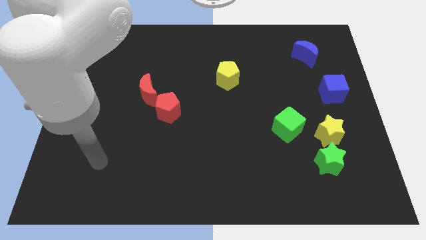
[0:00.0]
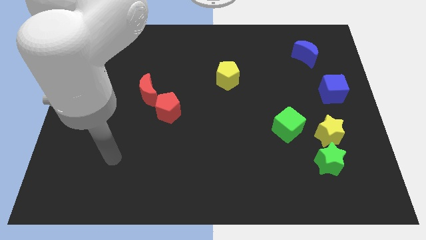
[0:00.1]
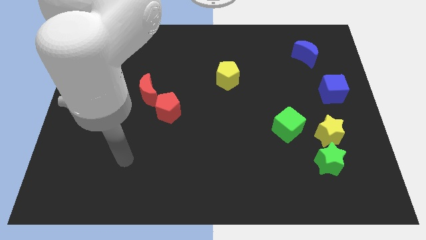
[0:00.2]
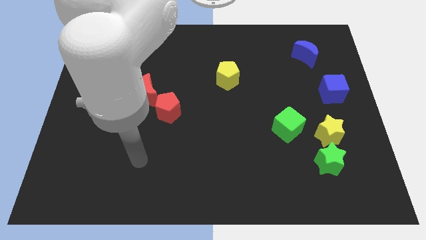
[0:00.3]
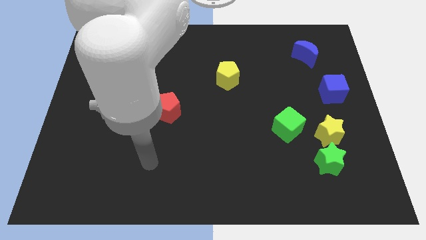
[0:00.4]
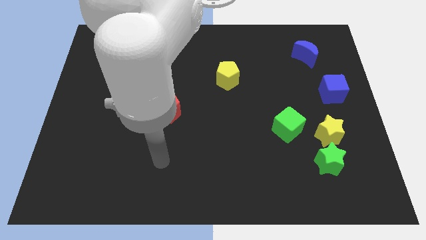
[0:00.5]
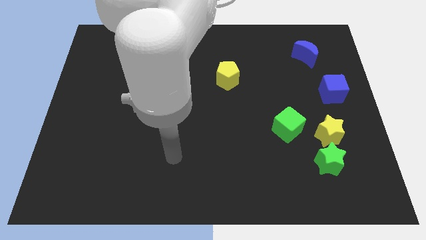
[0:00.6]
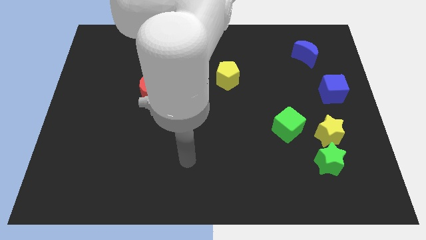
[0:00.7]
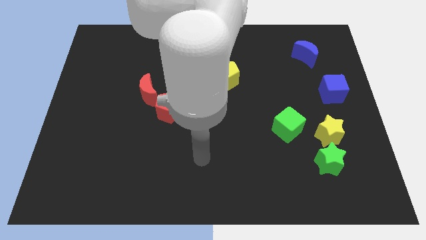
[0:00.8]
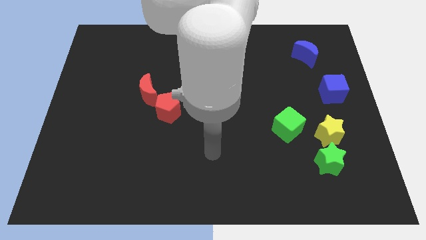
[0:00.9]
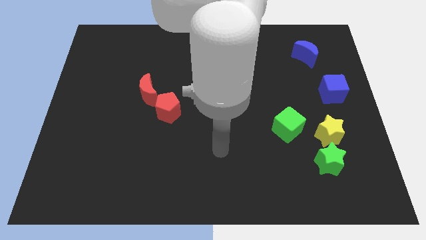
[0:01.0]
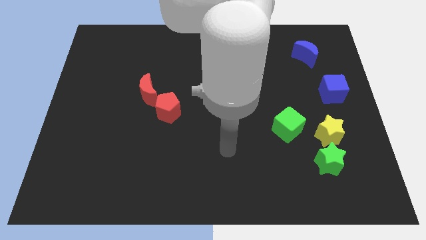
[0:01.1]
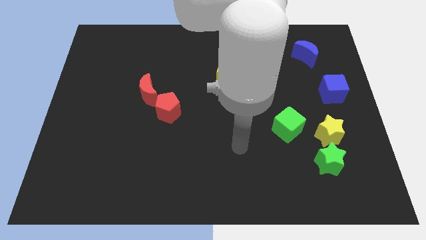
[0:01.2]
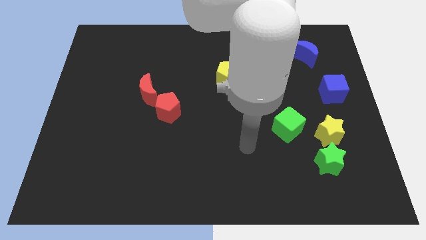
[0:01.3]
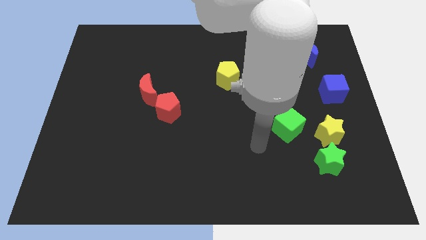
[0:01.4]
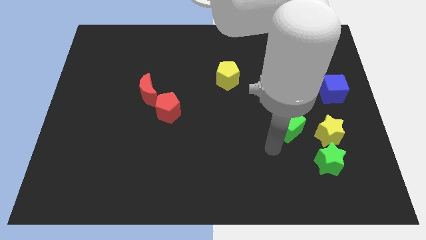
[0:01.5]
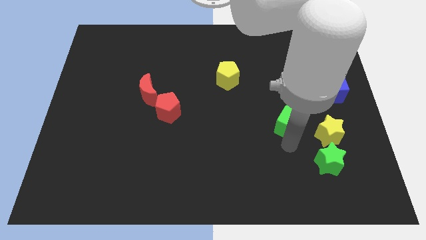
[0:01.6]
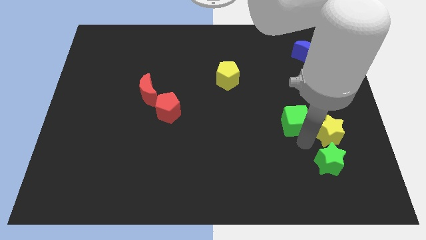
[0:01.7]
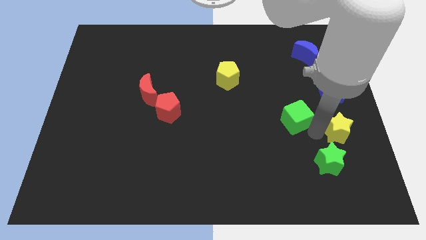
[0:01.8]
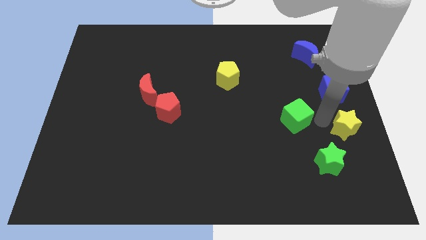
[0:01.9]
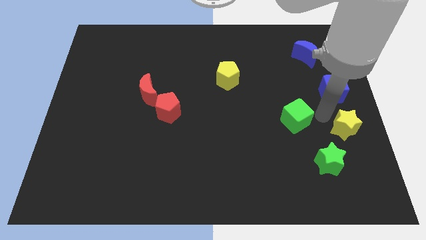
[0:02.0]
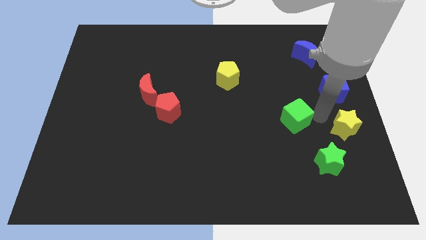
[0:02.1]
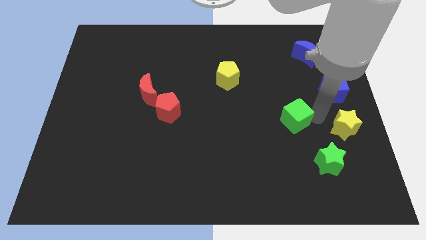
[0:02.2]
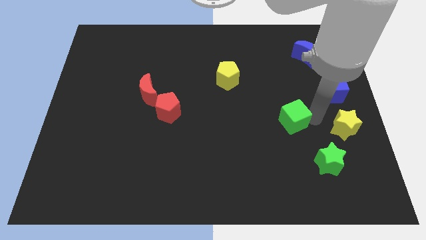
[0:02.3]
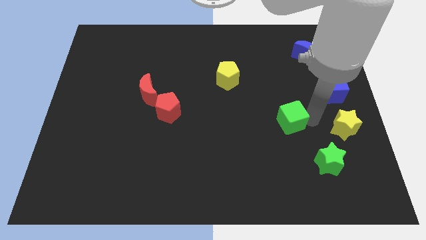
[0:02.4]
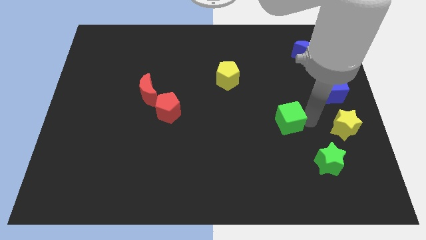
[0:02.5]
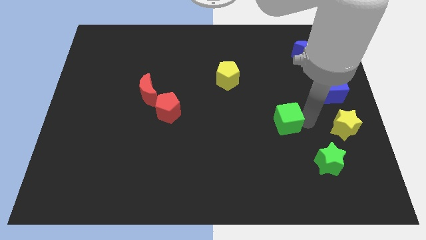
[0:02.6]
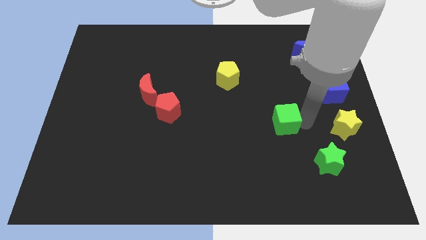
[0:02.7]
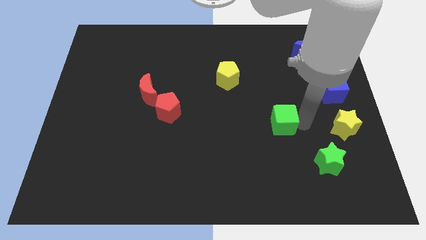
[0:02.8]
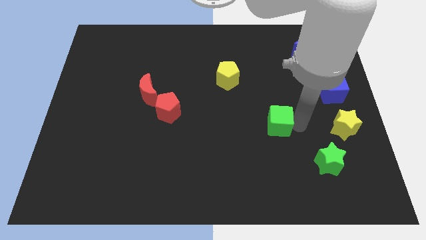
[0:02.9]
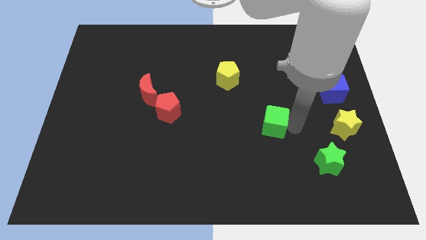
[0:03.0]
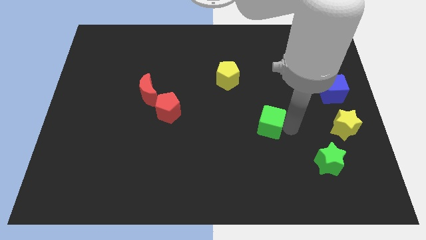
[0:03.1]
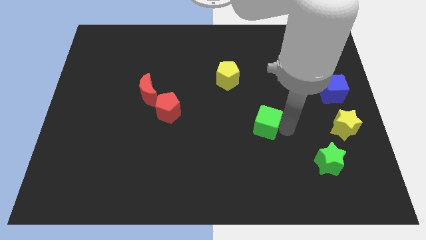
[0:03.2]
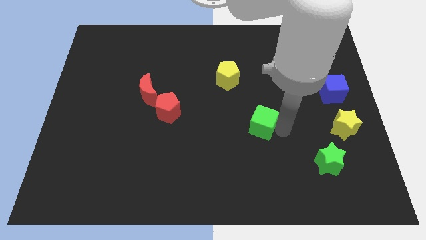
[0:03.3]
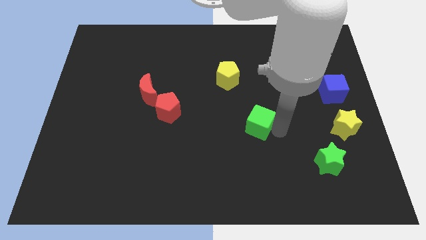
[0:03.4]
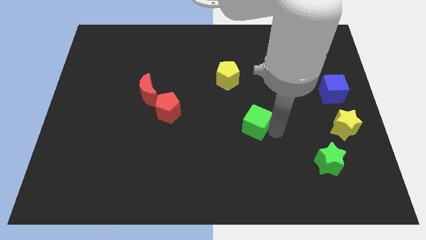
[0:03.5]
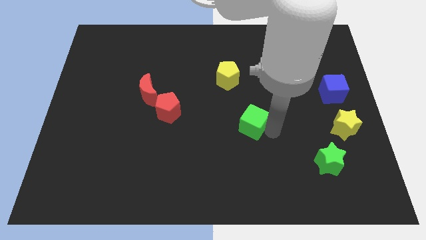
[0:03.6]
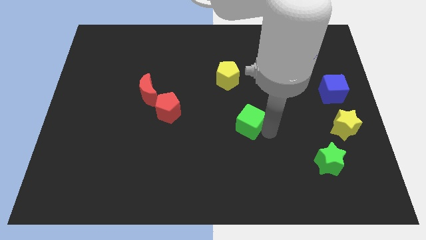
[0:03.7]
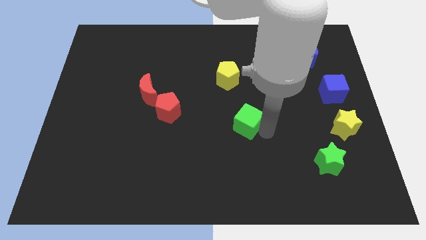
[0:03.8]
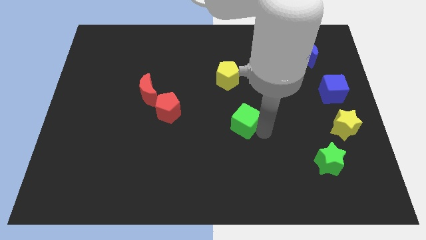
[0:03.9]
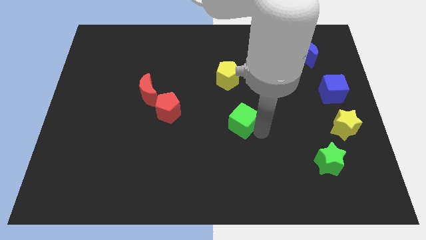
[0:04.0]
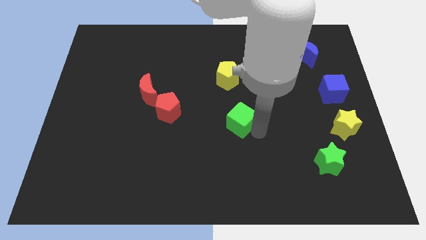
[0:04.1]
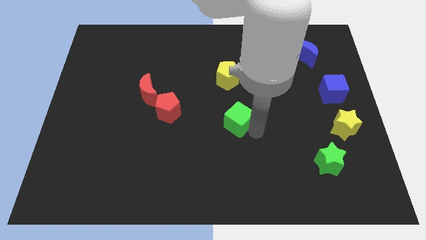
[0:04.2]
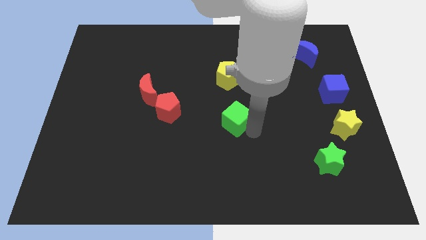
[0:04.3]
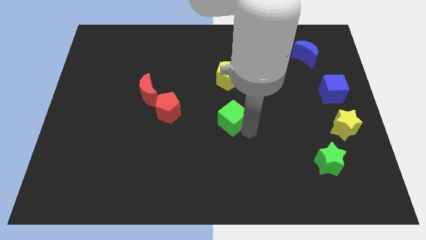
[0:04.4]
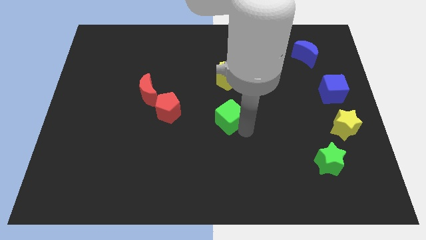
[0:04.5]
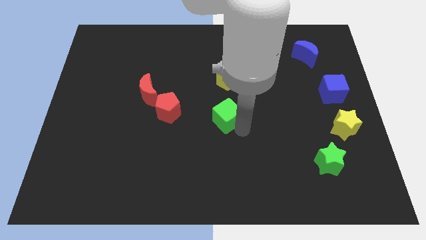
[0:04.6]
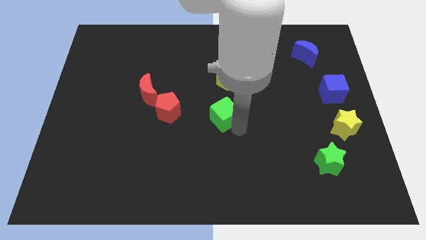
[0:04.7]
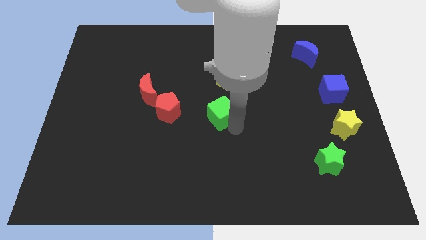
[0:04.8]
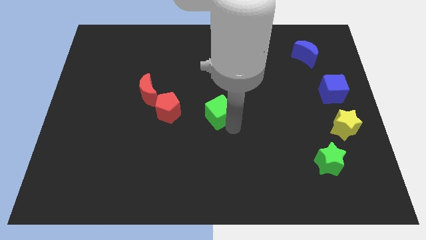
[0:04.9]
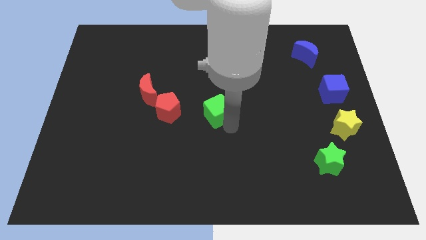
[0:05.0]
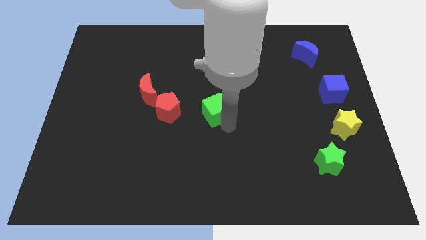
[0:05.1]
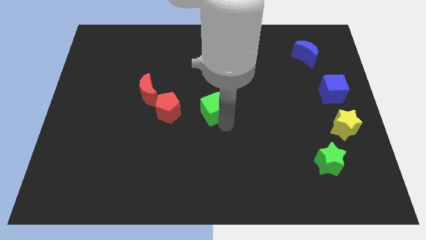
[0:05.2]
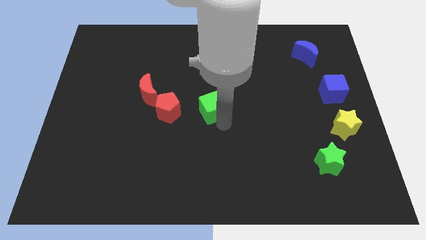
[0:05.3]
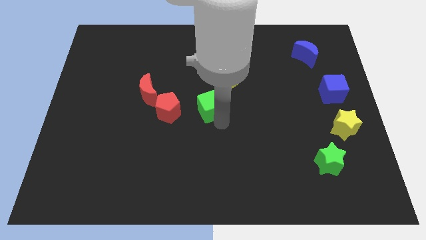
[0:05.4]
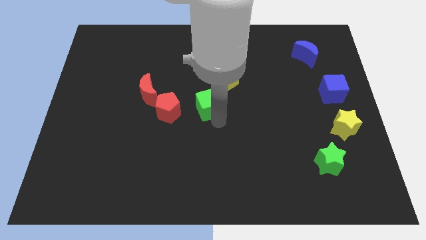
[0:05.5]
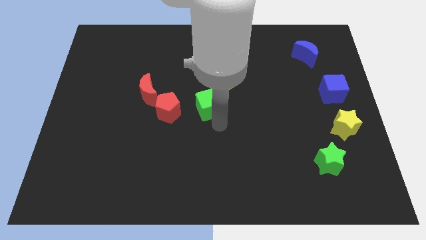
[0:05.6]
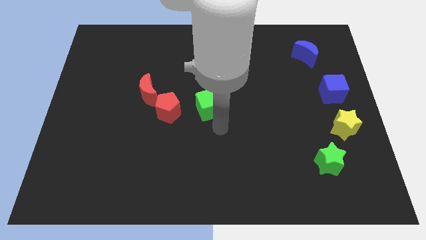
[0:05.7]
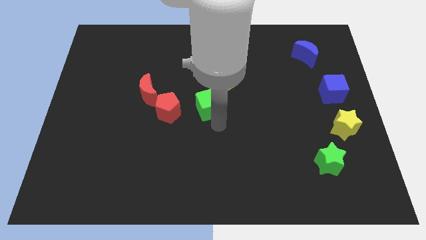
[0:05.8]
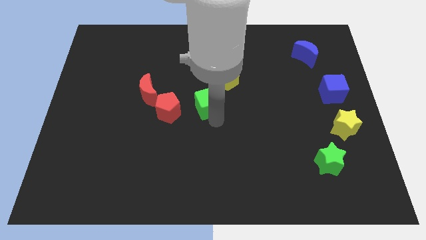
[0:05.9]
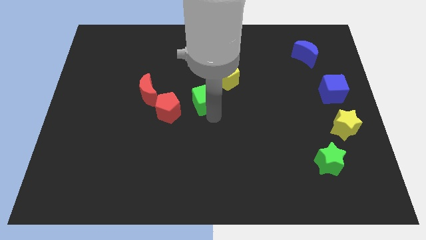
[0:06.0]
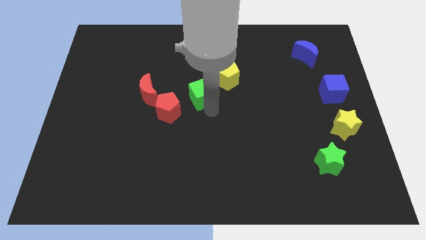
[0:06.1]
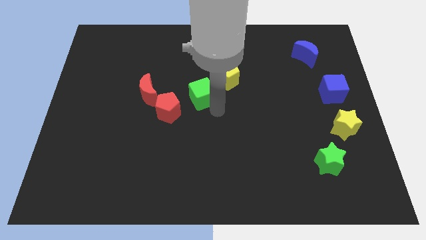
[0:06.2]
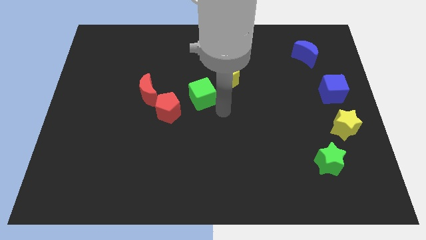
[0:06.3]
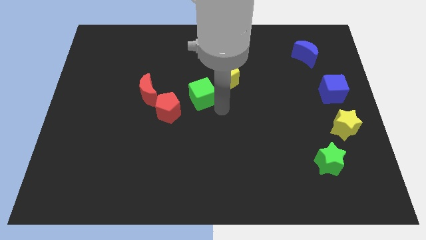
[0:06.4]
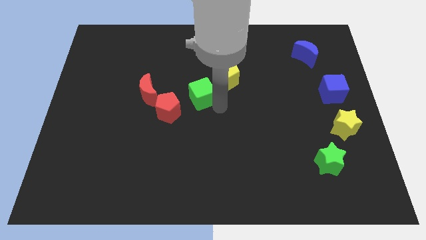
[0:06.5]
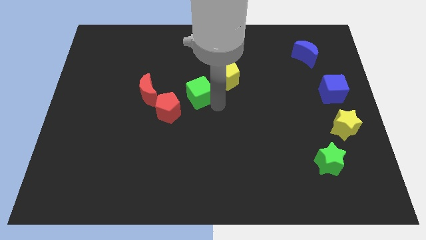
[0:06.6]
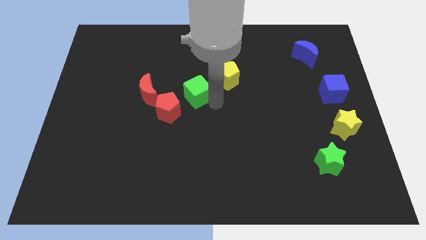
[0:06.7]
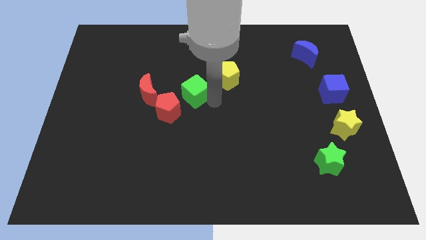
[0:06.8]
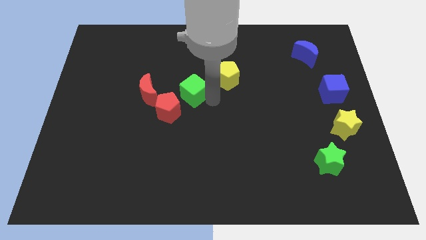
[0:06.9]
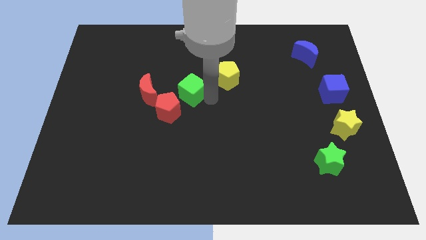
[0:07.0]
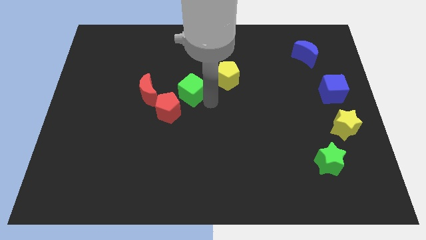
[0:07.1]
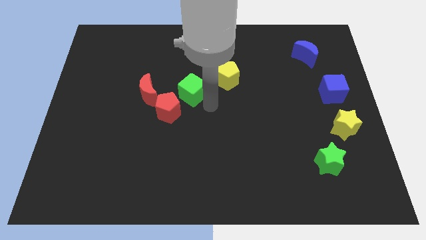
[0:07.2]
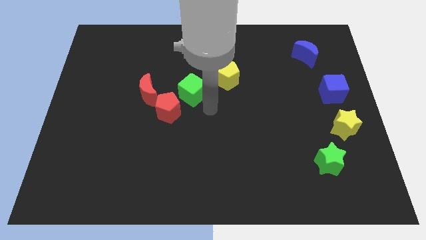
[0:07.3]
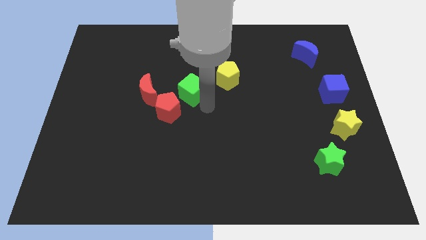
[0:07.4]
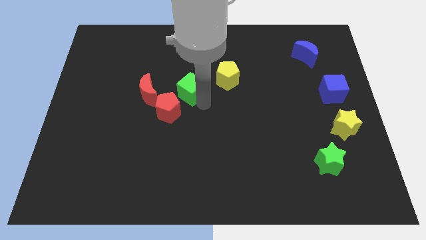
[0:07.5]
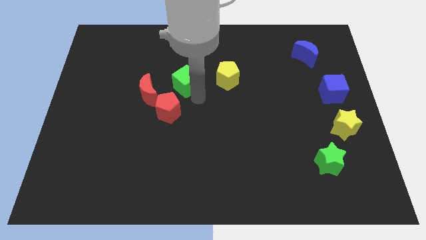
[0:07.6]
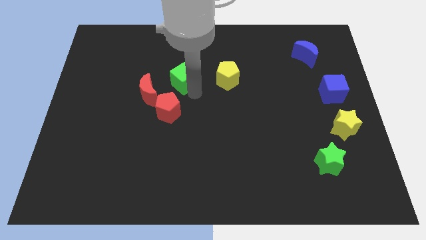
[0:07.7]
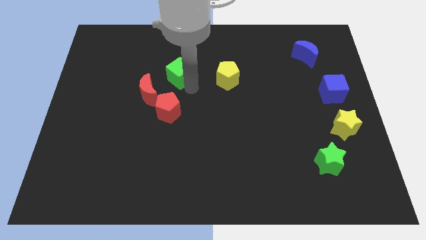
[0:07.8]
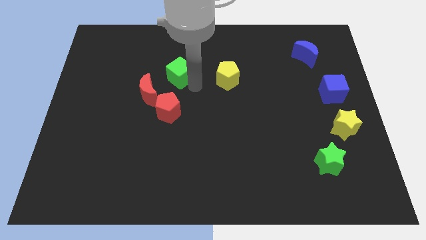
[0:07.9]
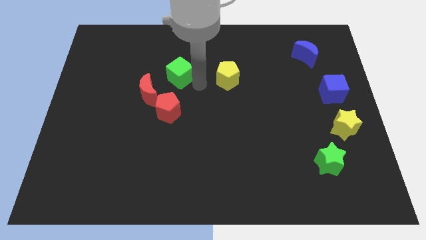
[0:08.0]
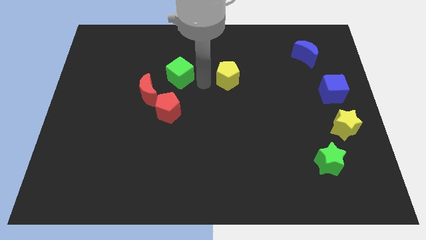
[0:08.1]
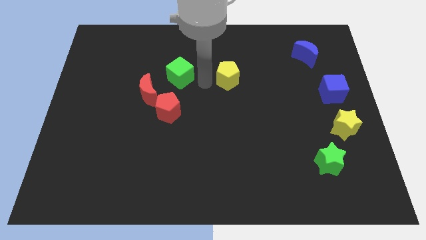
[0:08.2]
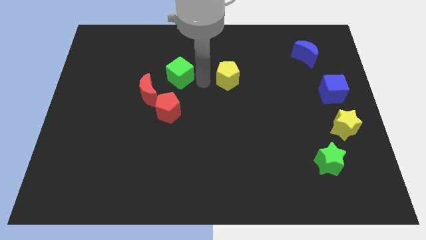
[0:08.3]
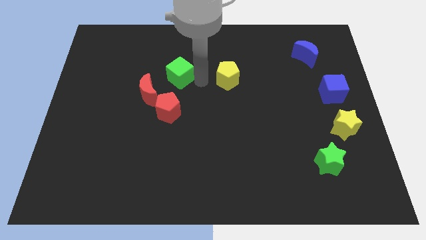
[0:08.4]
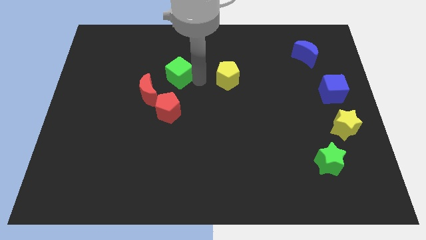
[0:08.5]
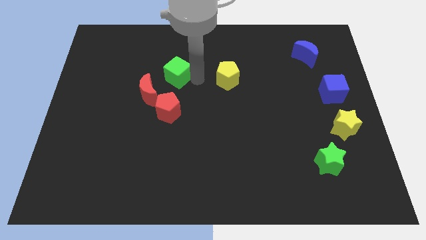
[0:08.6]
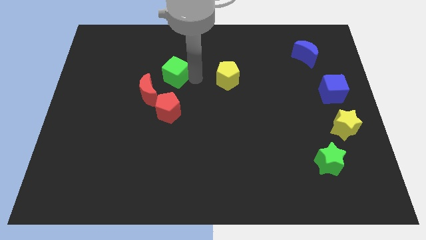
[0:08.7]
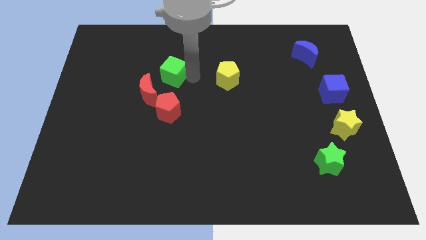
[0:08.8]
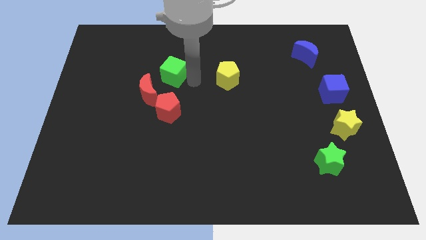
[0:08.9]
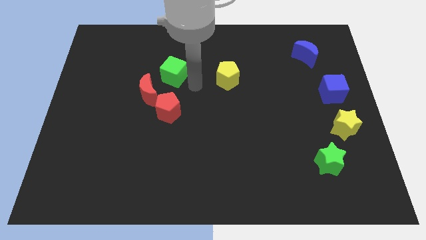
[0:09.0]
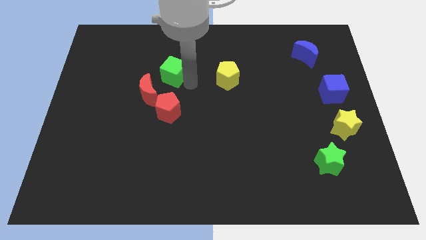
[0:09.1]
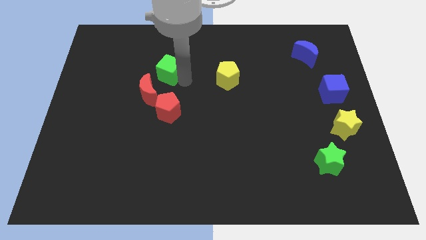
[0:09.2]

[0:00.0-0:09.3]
put the green cube above the red moon
